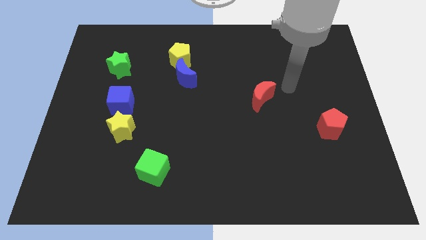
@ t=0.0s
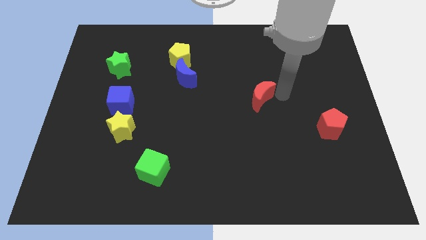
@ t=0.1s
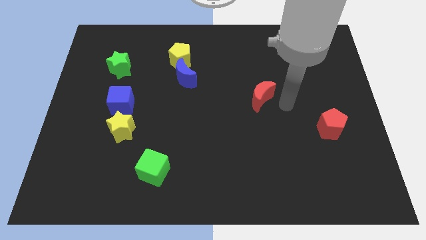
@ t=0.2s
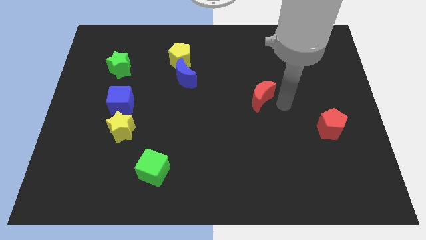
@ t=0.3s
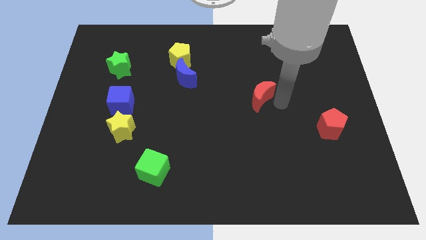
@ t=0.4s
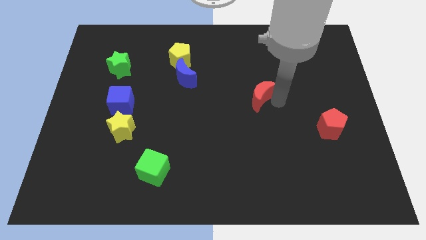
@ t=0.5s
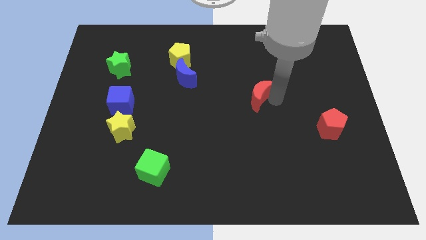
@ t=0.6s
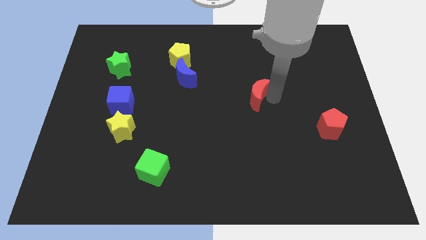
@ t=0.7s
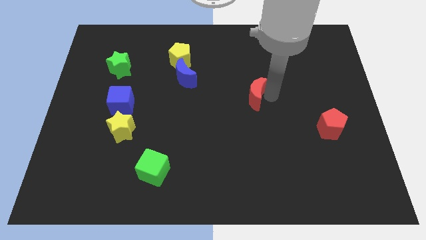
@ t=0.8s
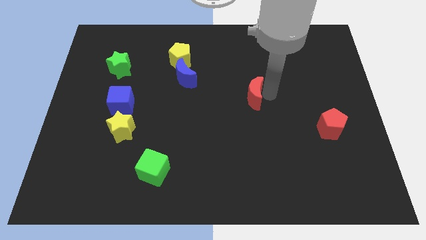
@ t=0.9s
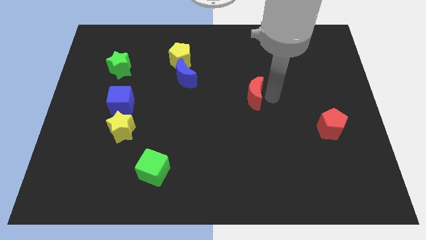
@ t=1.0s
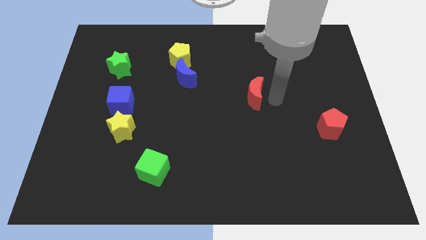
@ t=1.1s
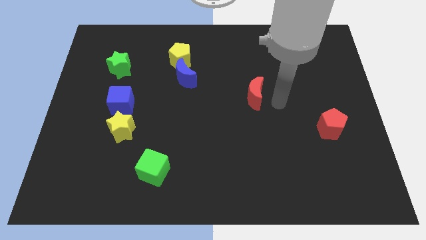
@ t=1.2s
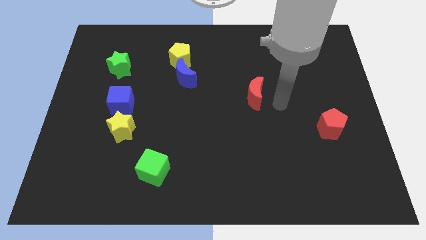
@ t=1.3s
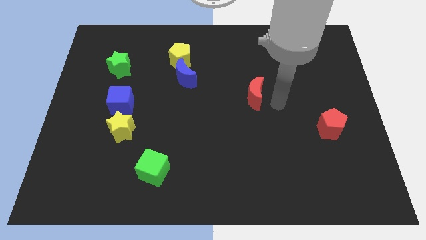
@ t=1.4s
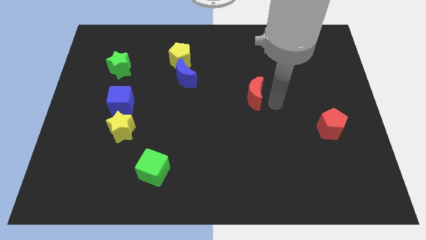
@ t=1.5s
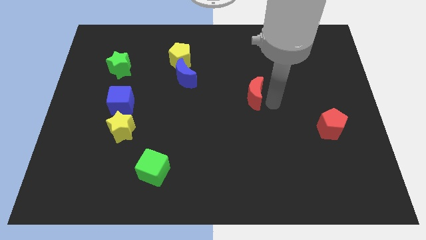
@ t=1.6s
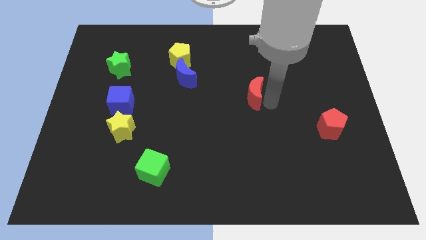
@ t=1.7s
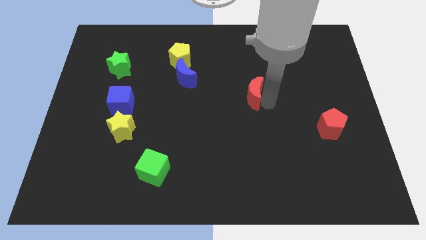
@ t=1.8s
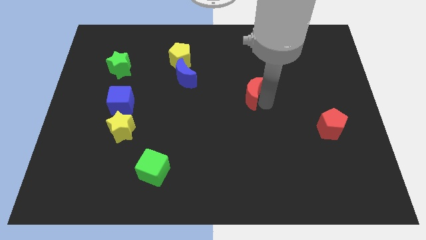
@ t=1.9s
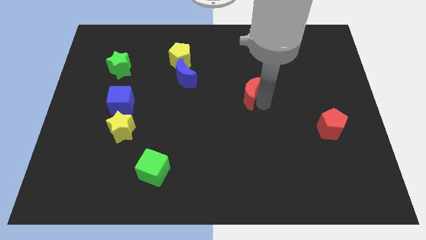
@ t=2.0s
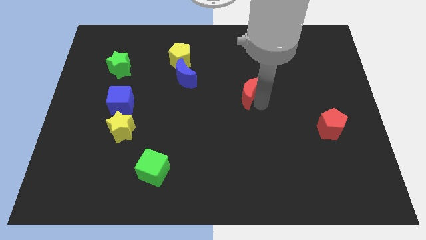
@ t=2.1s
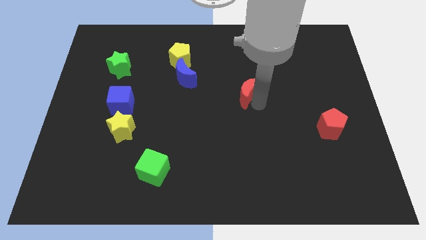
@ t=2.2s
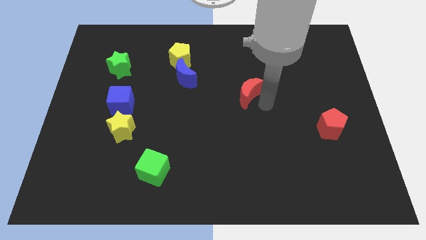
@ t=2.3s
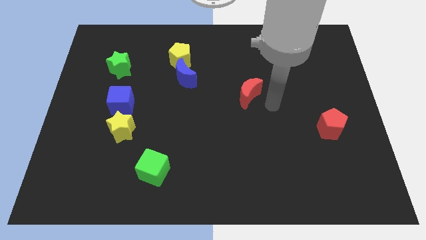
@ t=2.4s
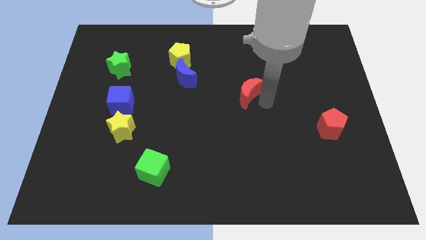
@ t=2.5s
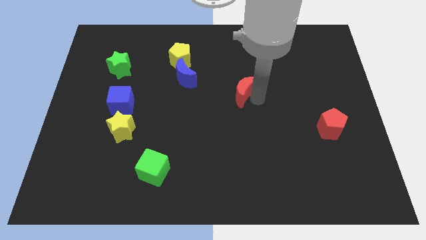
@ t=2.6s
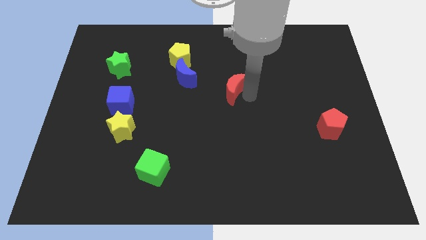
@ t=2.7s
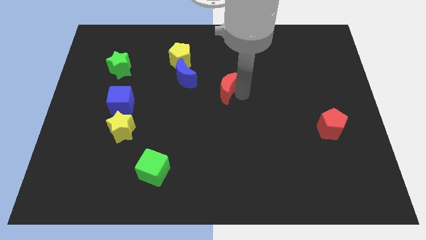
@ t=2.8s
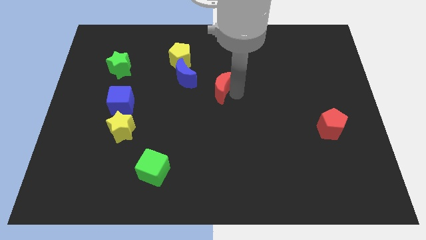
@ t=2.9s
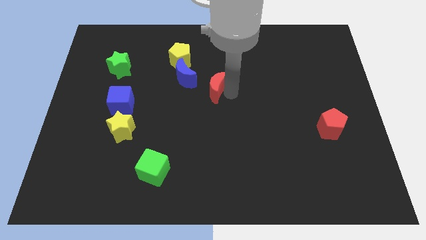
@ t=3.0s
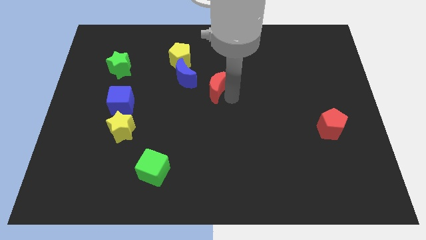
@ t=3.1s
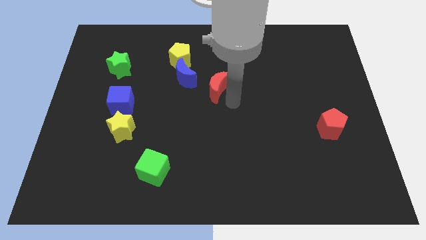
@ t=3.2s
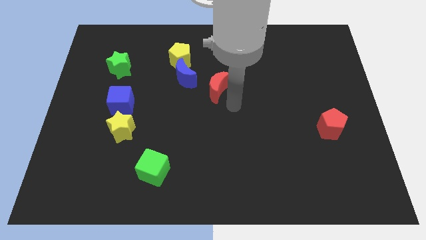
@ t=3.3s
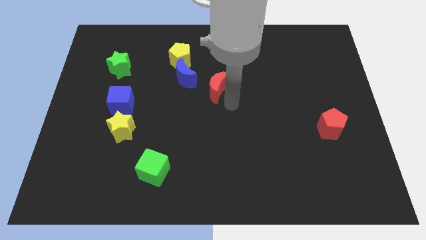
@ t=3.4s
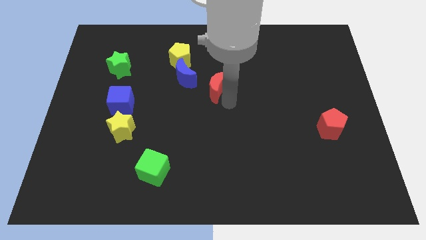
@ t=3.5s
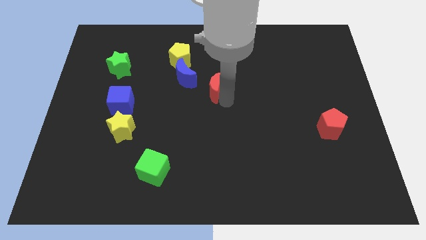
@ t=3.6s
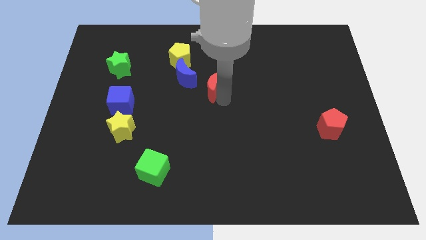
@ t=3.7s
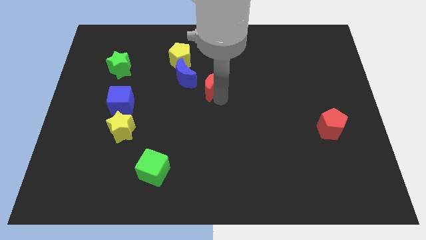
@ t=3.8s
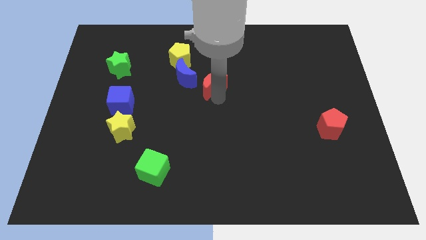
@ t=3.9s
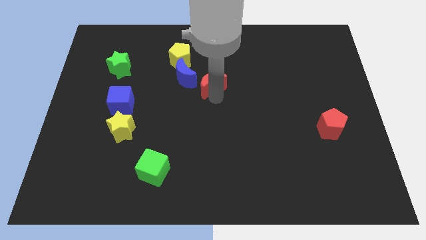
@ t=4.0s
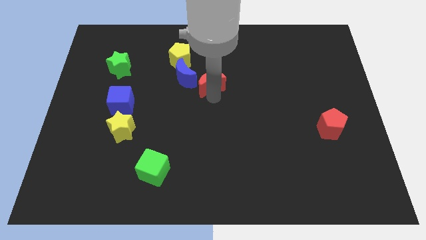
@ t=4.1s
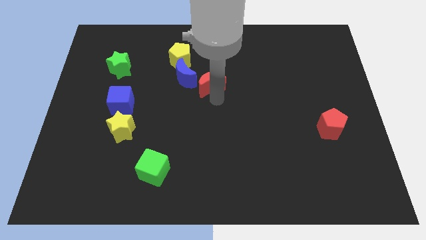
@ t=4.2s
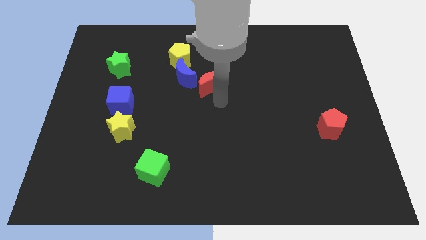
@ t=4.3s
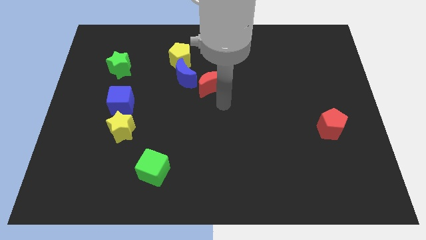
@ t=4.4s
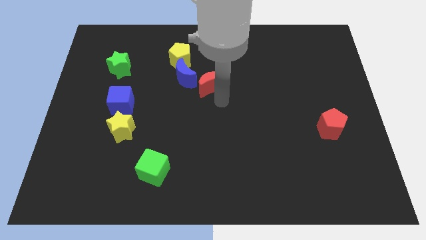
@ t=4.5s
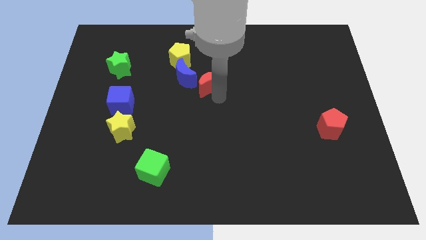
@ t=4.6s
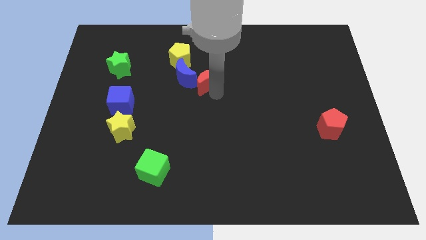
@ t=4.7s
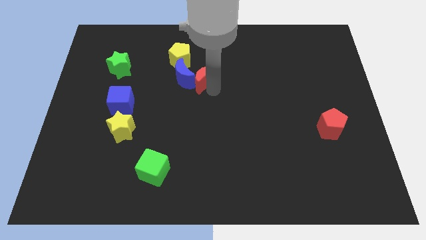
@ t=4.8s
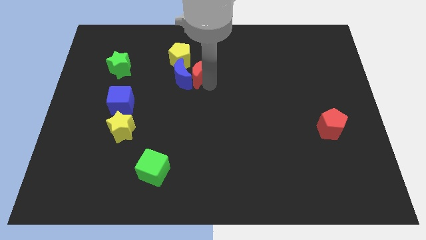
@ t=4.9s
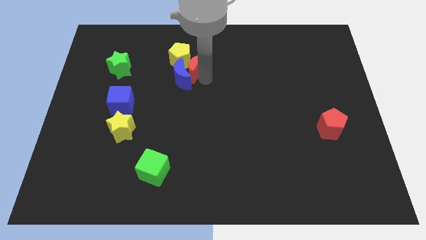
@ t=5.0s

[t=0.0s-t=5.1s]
slide the red moon close to the yellow pentagon

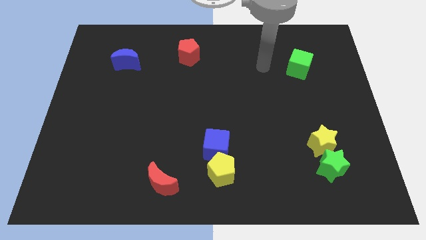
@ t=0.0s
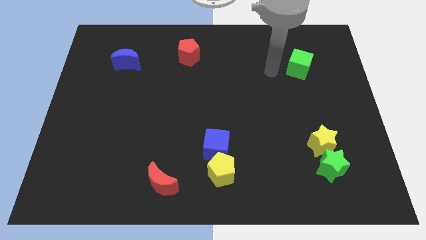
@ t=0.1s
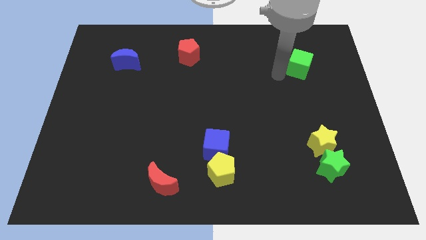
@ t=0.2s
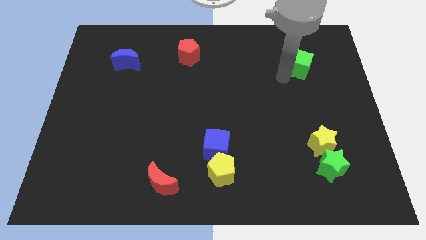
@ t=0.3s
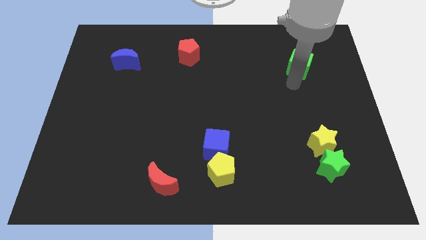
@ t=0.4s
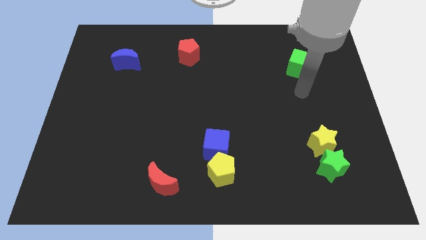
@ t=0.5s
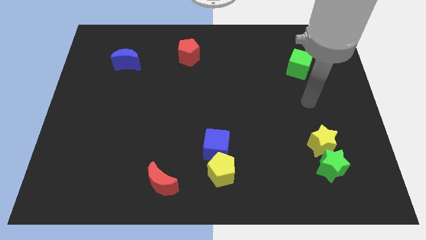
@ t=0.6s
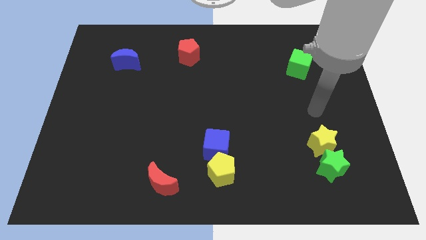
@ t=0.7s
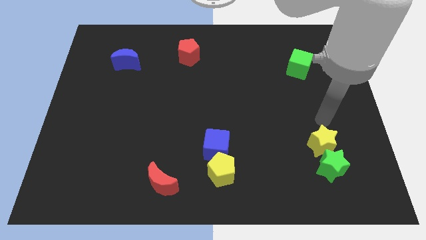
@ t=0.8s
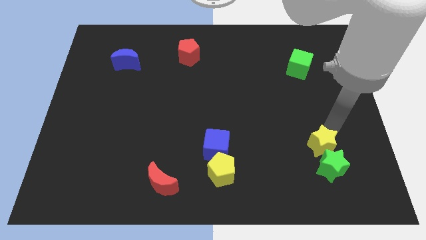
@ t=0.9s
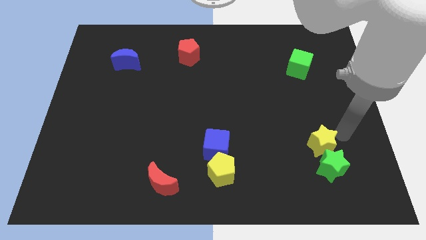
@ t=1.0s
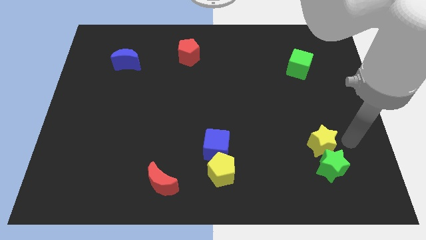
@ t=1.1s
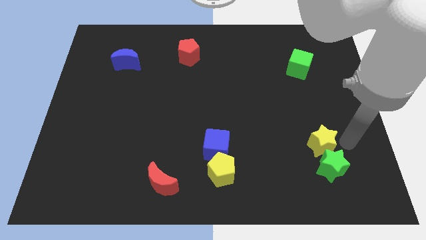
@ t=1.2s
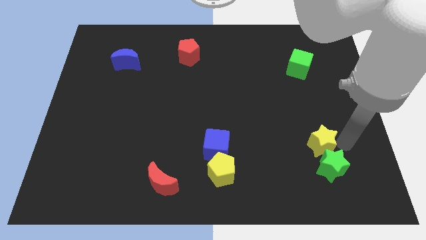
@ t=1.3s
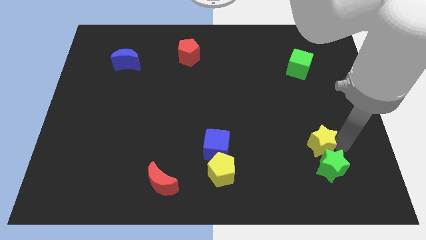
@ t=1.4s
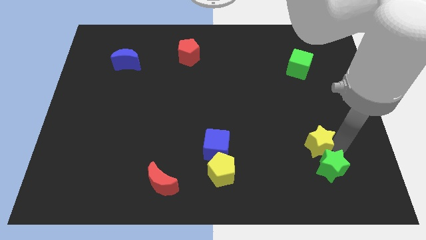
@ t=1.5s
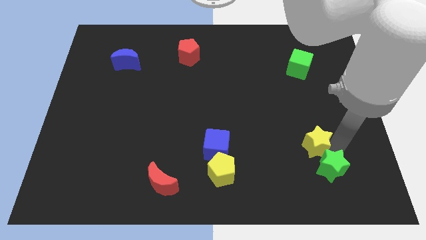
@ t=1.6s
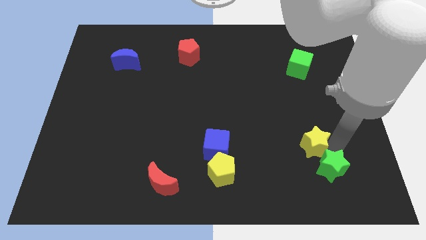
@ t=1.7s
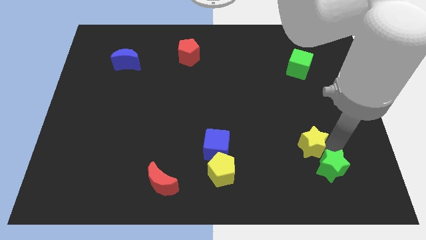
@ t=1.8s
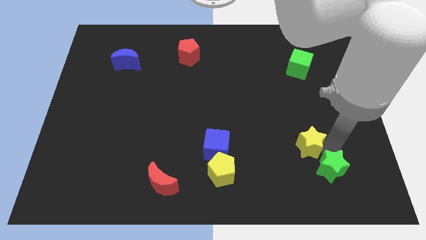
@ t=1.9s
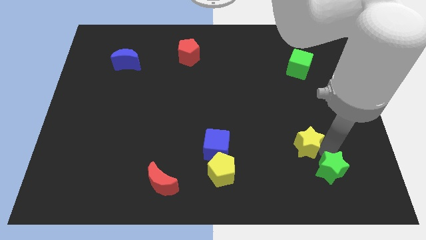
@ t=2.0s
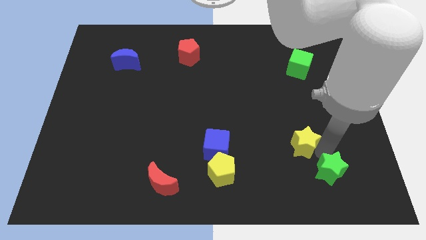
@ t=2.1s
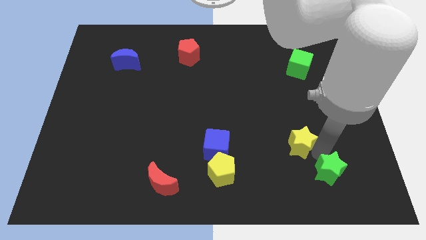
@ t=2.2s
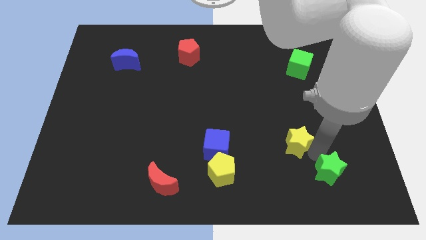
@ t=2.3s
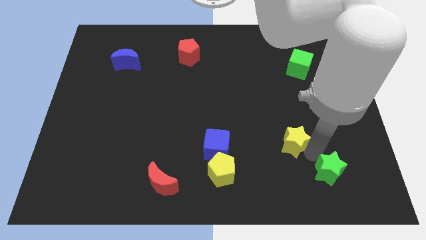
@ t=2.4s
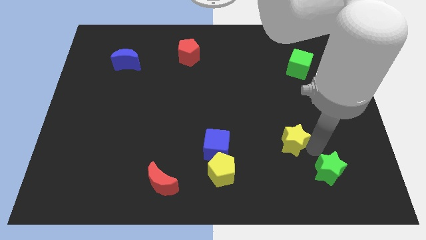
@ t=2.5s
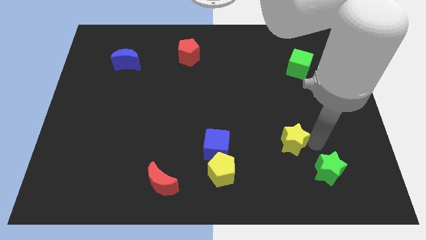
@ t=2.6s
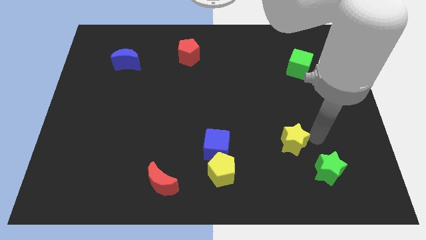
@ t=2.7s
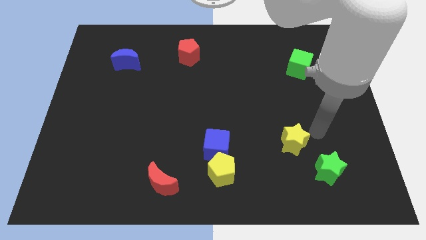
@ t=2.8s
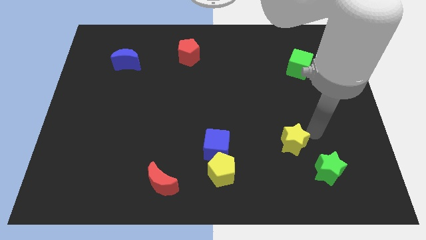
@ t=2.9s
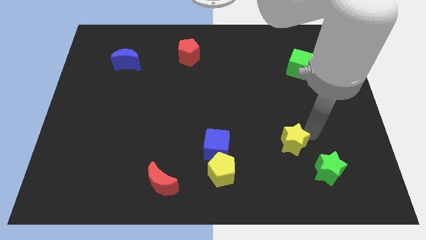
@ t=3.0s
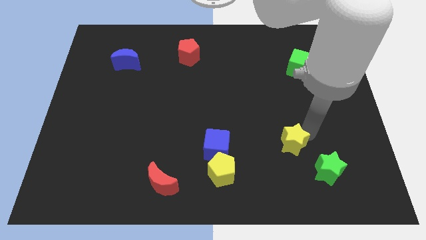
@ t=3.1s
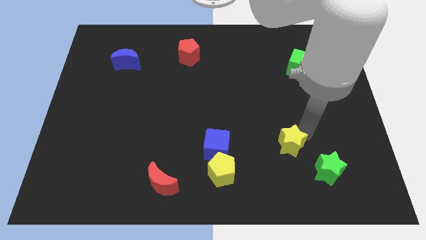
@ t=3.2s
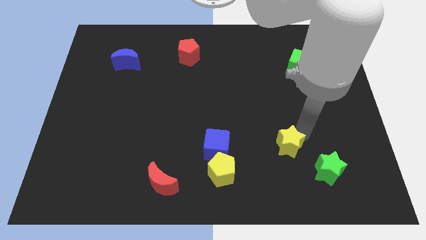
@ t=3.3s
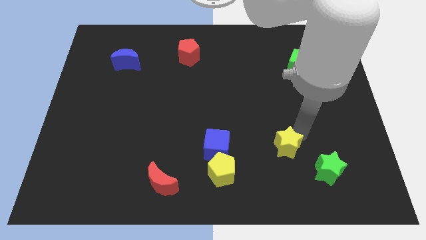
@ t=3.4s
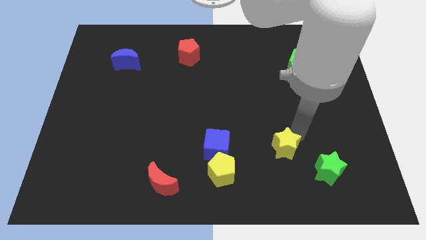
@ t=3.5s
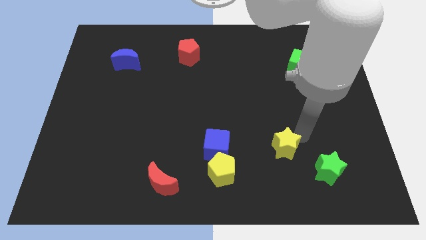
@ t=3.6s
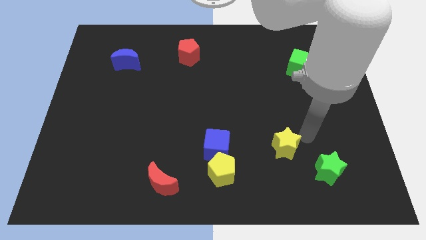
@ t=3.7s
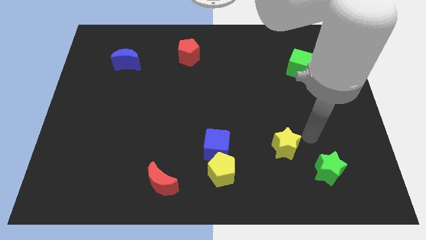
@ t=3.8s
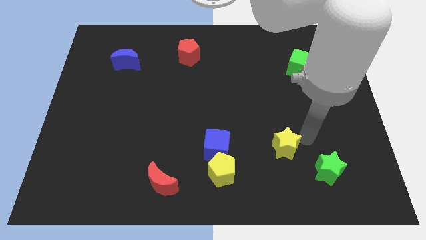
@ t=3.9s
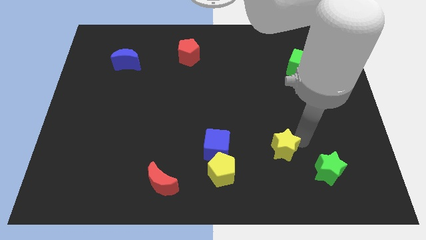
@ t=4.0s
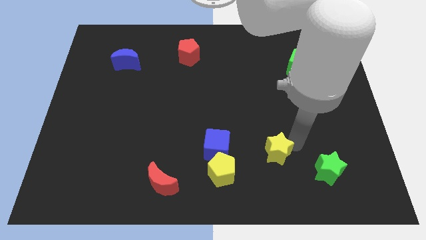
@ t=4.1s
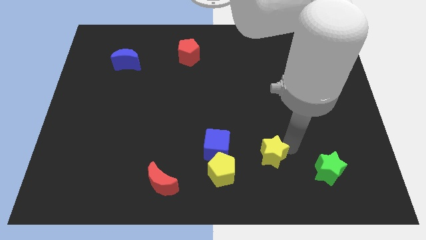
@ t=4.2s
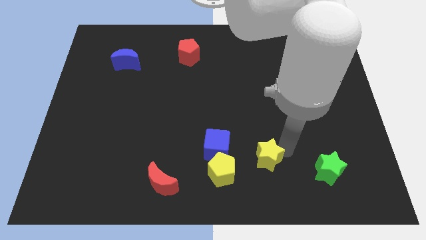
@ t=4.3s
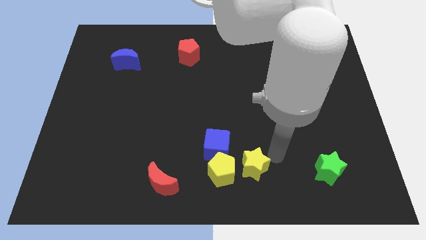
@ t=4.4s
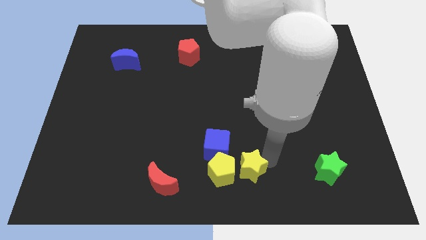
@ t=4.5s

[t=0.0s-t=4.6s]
push the yellow star to the yellow pentagon
